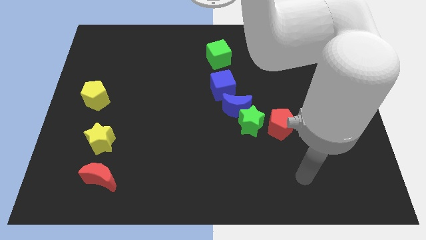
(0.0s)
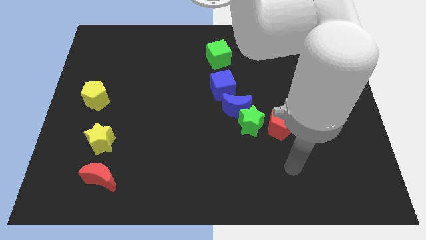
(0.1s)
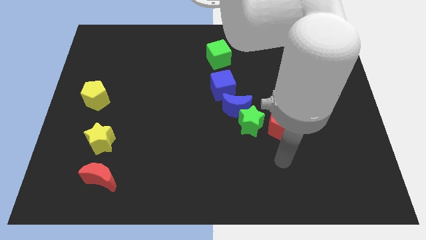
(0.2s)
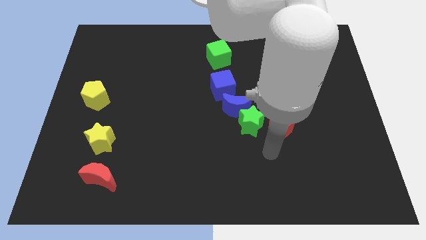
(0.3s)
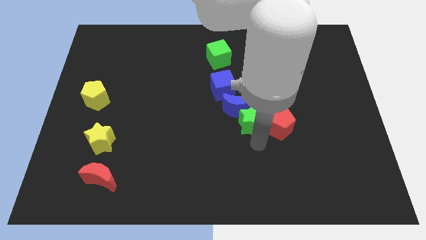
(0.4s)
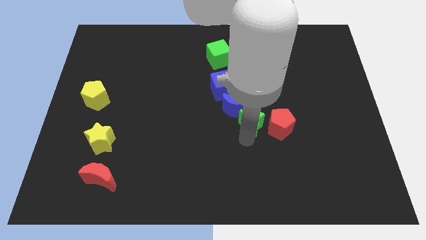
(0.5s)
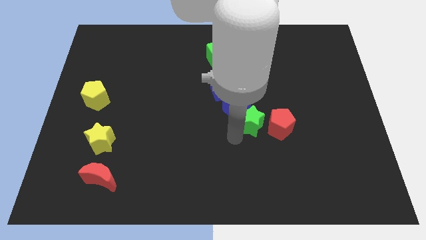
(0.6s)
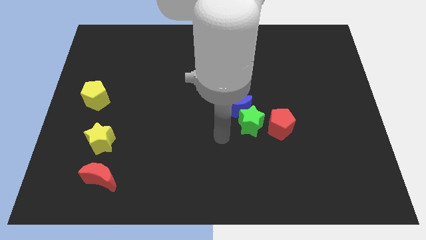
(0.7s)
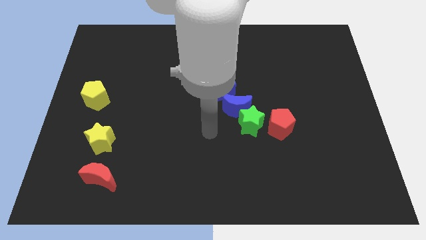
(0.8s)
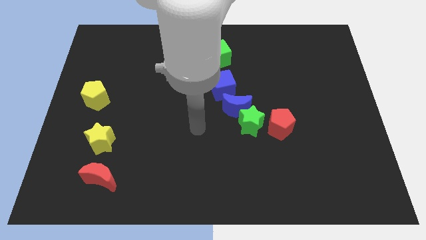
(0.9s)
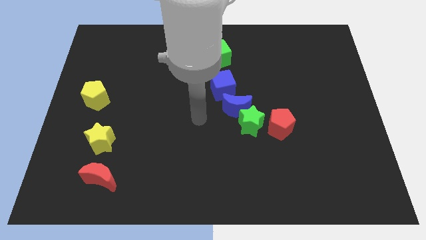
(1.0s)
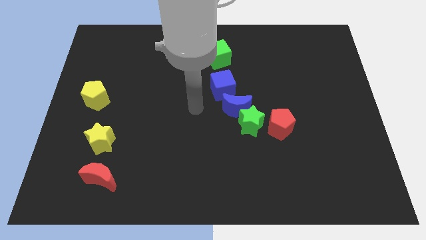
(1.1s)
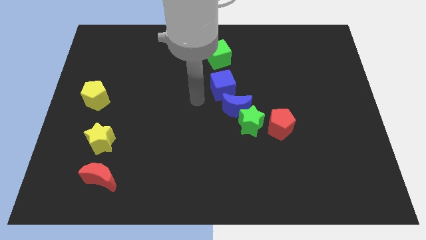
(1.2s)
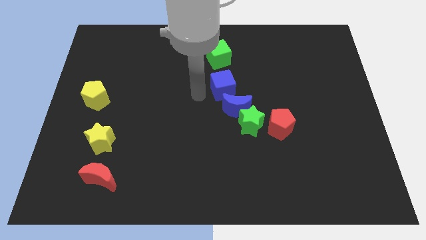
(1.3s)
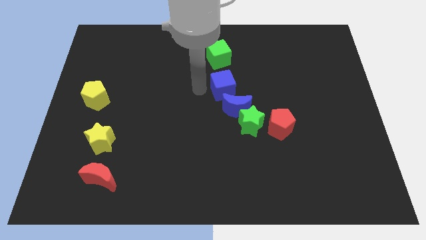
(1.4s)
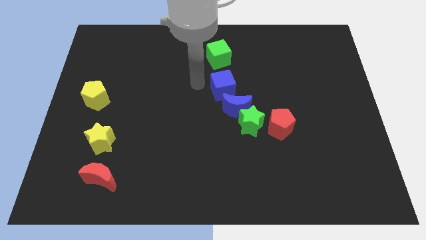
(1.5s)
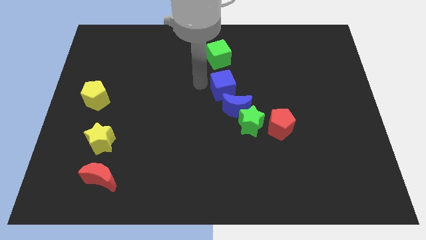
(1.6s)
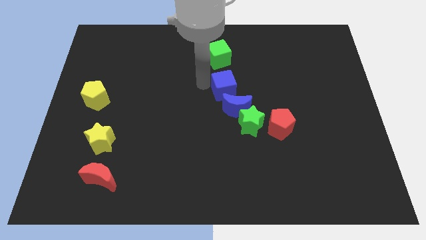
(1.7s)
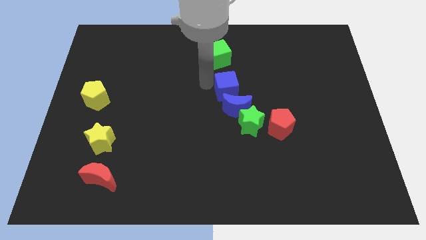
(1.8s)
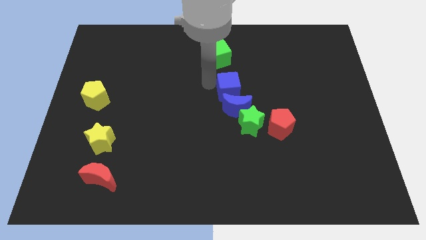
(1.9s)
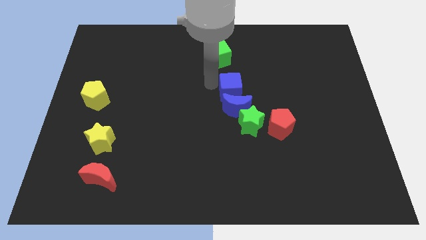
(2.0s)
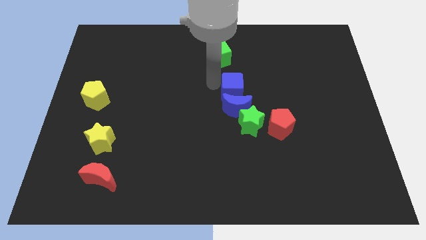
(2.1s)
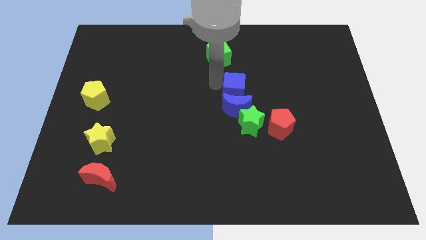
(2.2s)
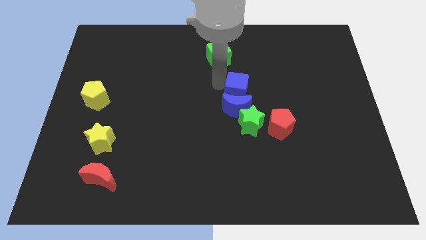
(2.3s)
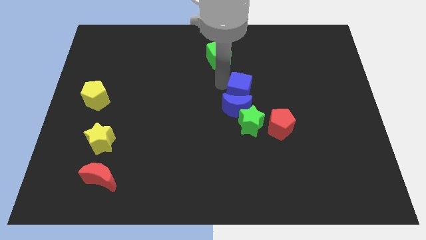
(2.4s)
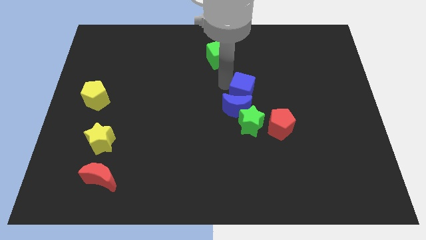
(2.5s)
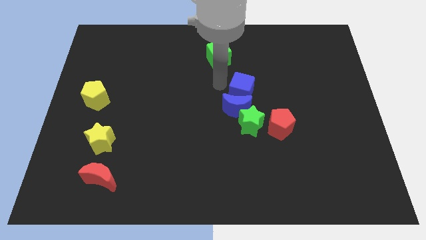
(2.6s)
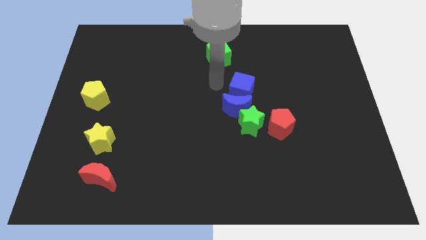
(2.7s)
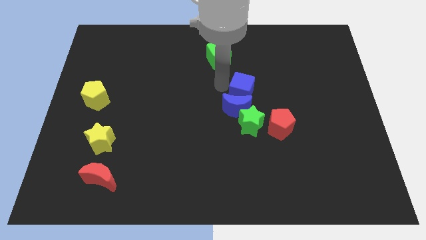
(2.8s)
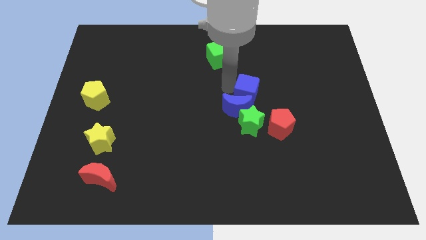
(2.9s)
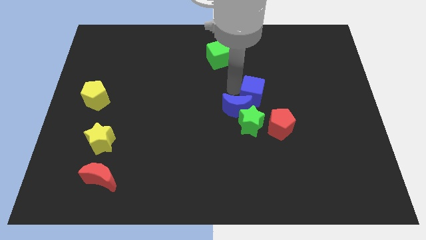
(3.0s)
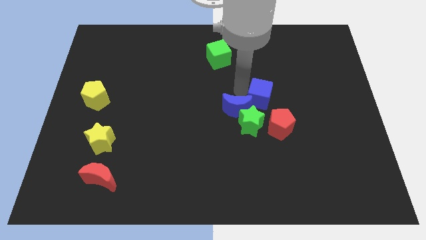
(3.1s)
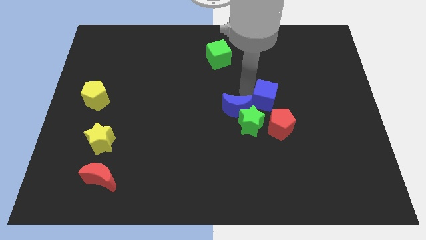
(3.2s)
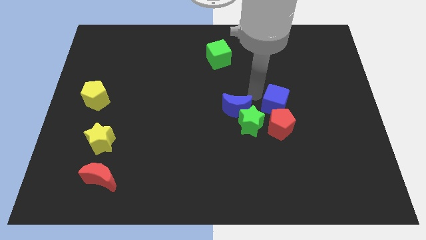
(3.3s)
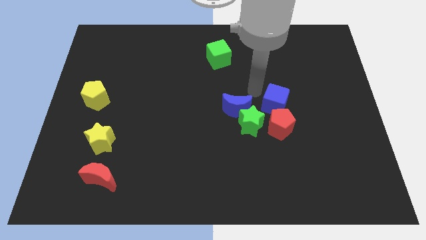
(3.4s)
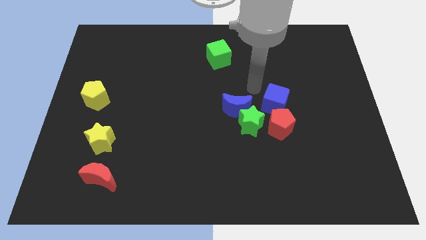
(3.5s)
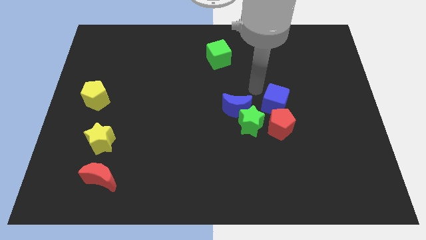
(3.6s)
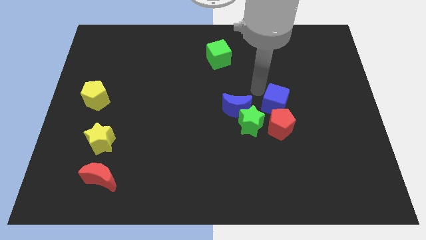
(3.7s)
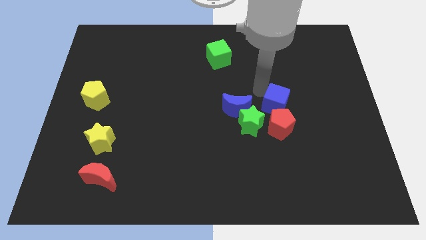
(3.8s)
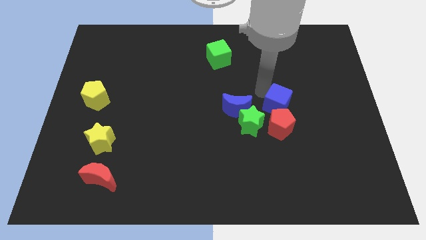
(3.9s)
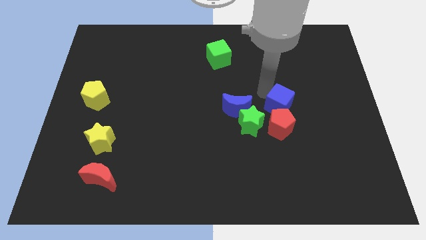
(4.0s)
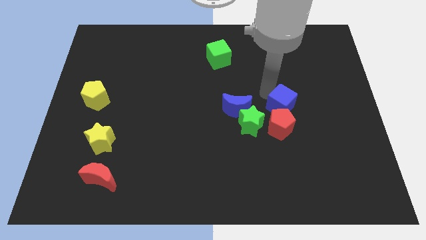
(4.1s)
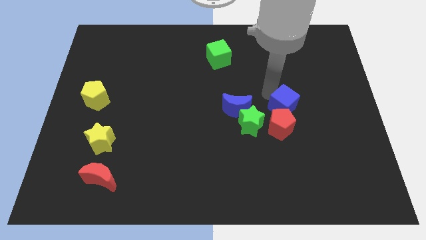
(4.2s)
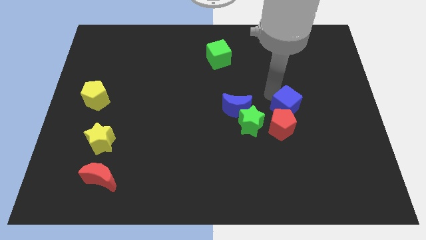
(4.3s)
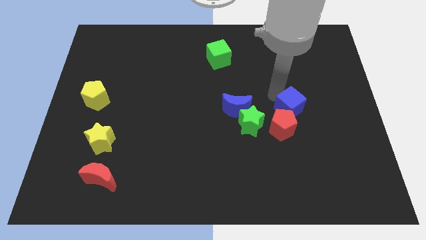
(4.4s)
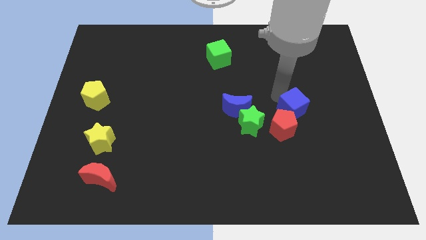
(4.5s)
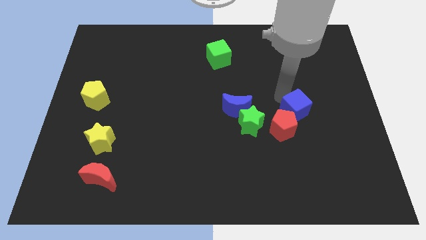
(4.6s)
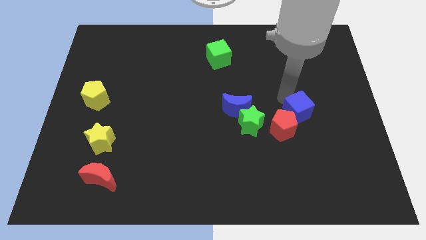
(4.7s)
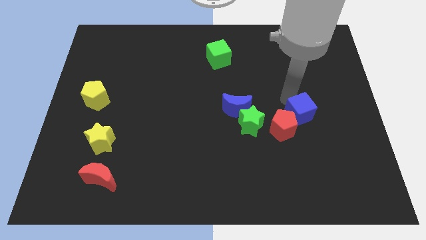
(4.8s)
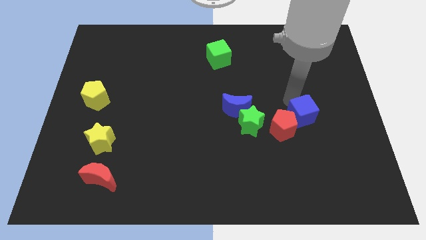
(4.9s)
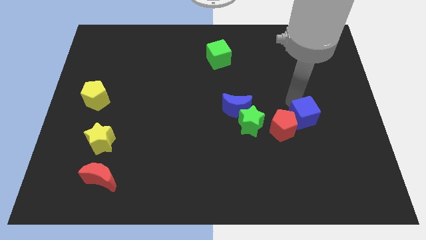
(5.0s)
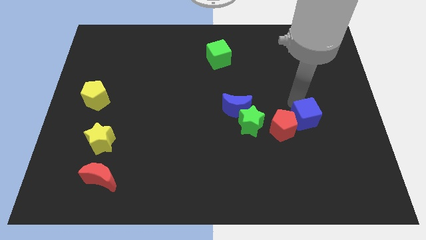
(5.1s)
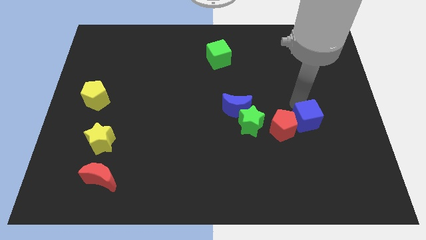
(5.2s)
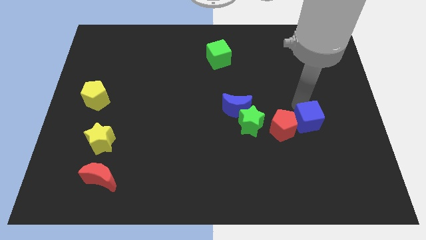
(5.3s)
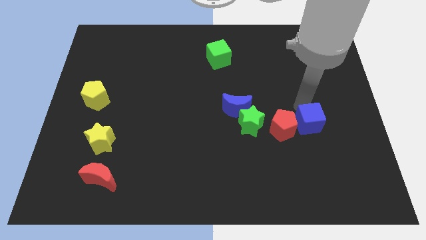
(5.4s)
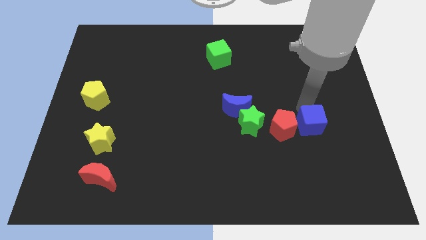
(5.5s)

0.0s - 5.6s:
slide the blue cube diagonally downwards and right

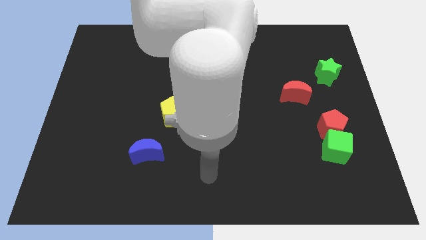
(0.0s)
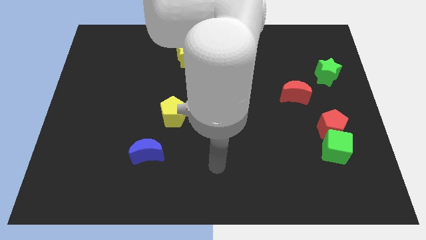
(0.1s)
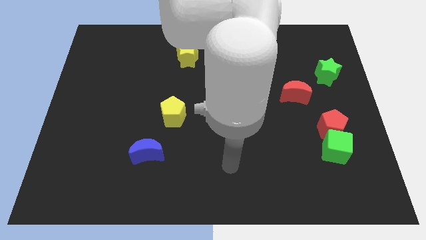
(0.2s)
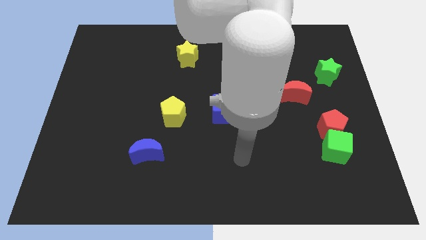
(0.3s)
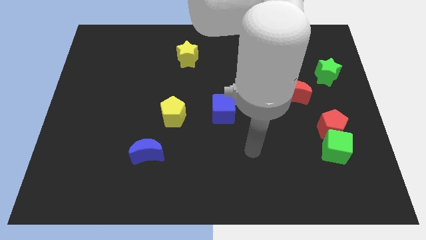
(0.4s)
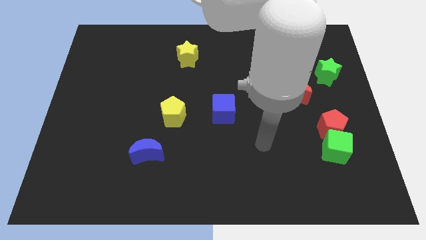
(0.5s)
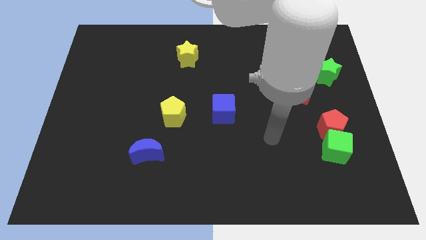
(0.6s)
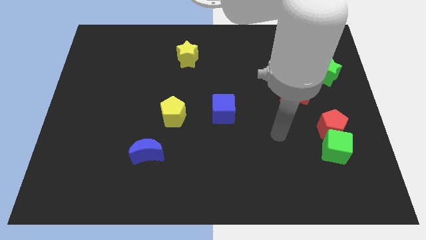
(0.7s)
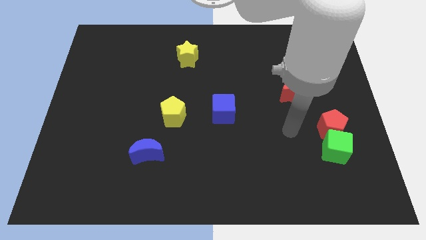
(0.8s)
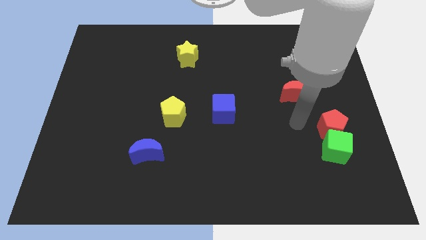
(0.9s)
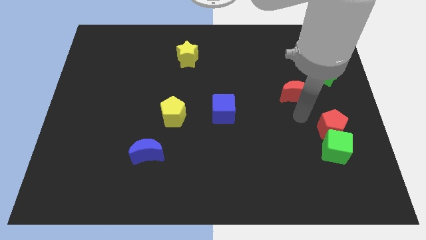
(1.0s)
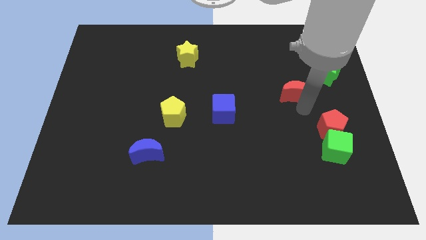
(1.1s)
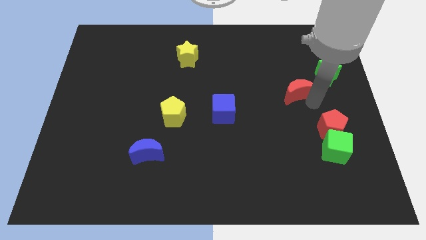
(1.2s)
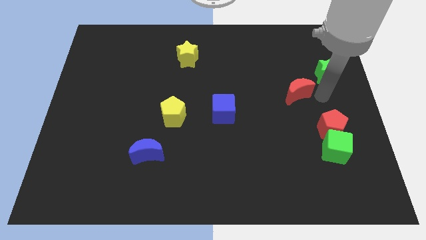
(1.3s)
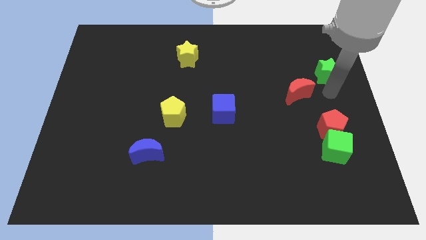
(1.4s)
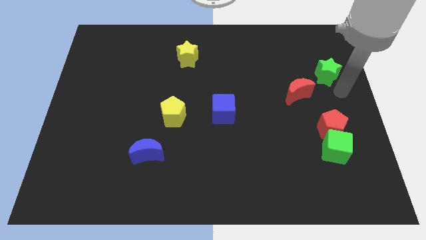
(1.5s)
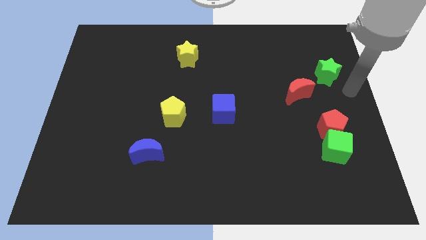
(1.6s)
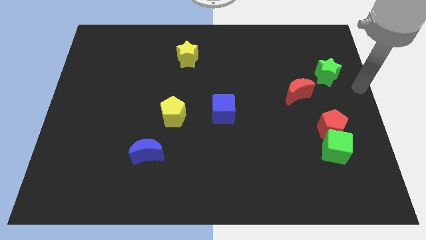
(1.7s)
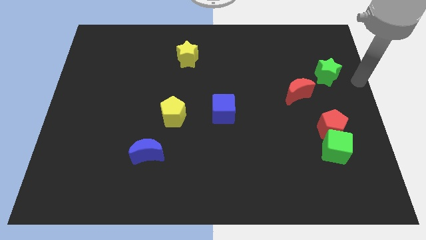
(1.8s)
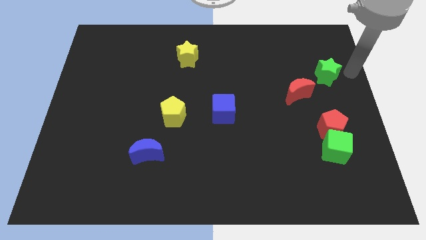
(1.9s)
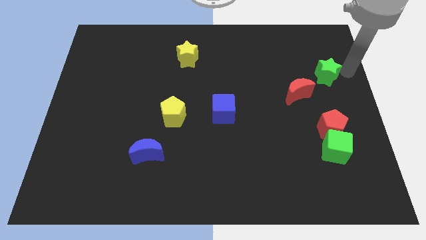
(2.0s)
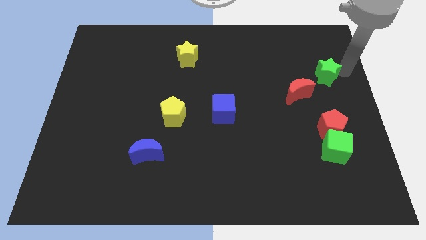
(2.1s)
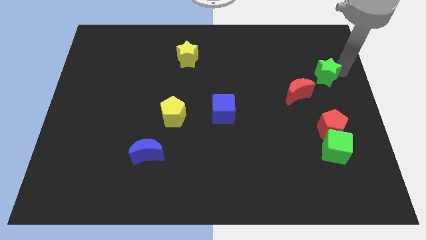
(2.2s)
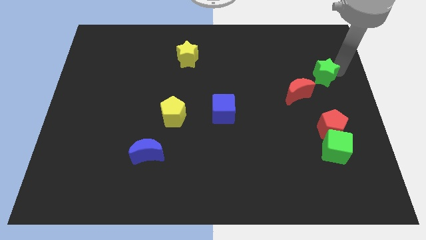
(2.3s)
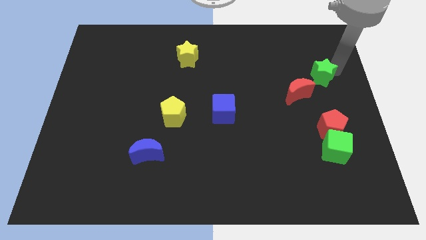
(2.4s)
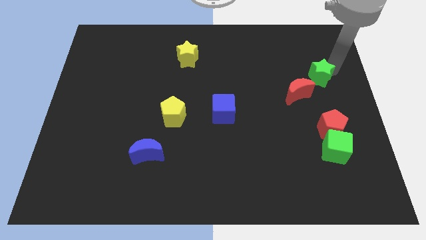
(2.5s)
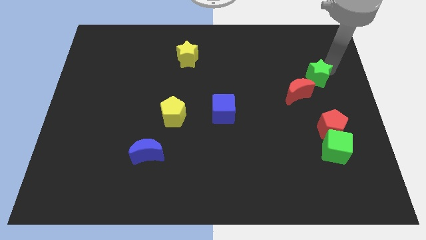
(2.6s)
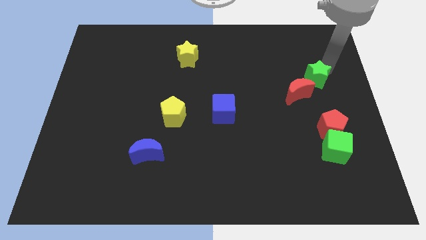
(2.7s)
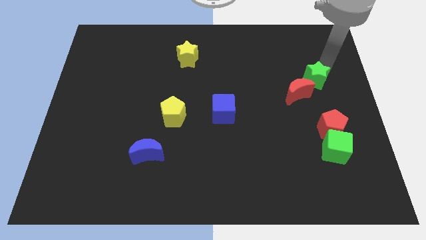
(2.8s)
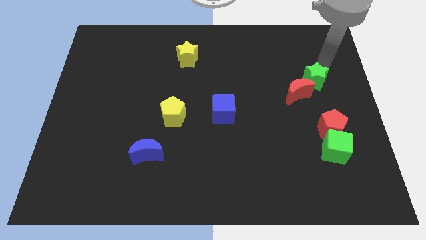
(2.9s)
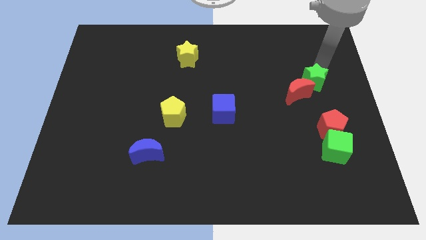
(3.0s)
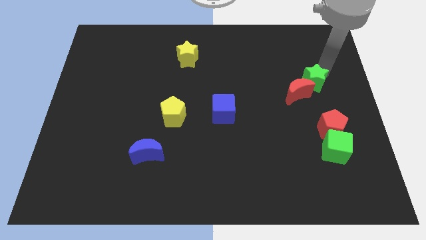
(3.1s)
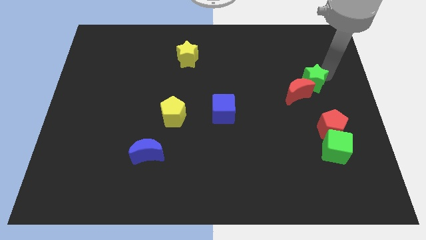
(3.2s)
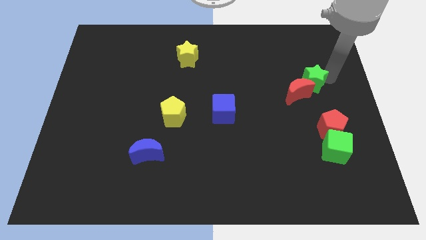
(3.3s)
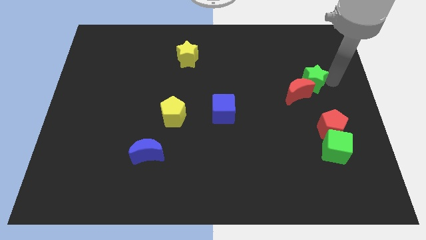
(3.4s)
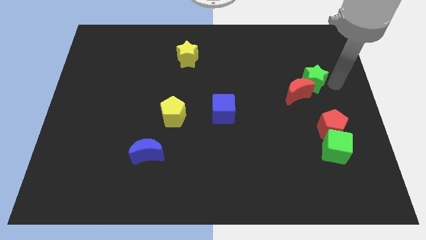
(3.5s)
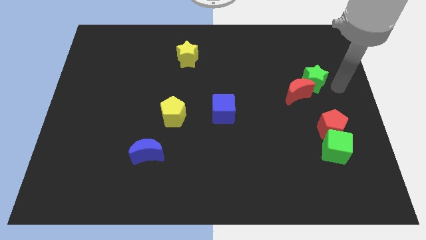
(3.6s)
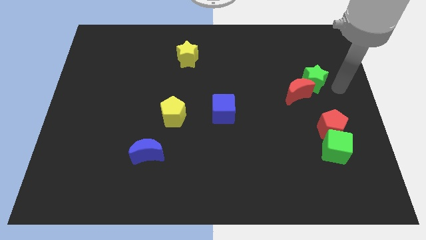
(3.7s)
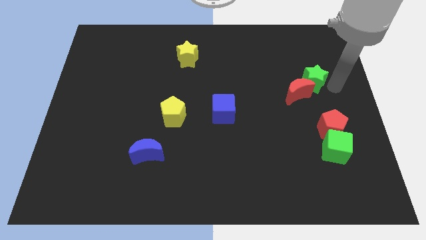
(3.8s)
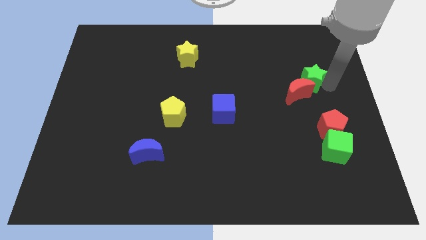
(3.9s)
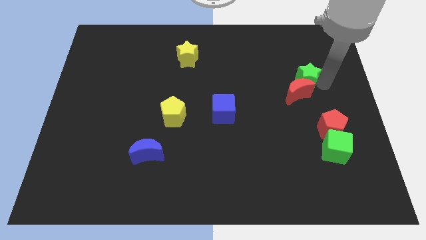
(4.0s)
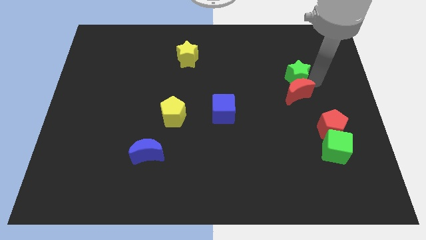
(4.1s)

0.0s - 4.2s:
slide the green star to the left a little
